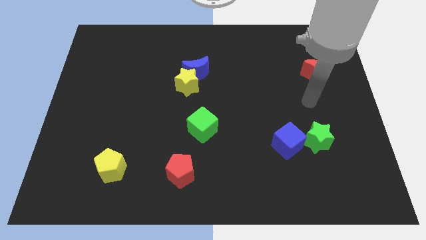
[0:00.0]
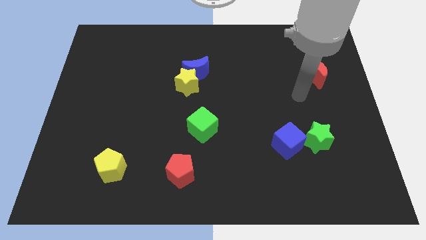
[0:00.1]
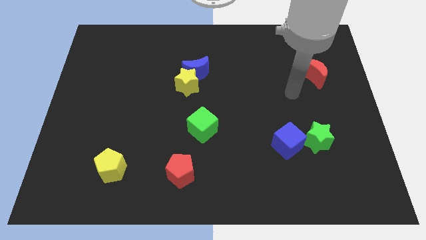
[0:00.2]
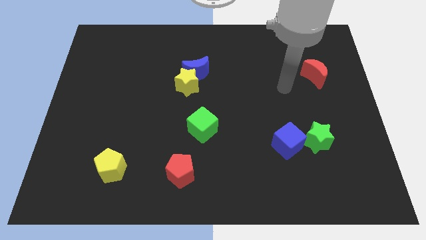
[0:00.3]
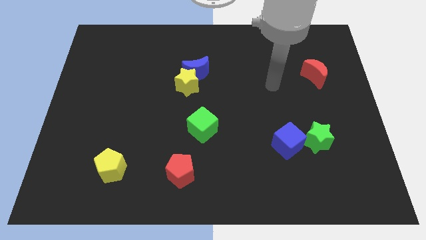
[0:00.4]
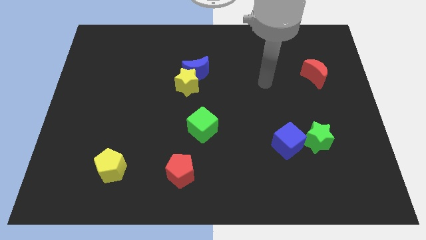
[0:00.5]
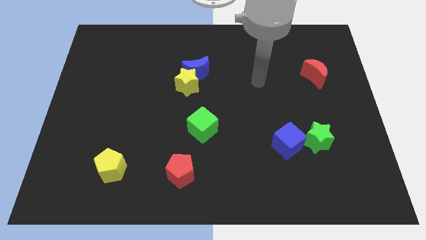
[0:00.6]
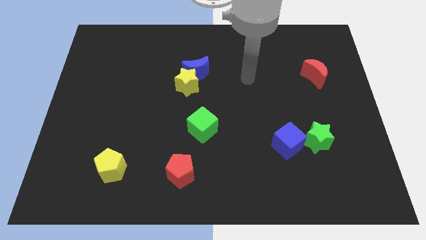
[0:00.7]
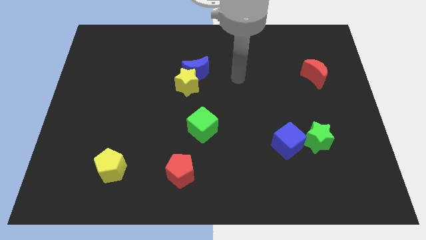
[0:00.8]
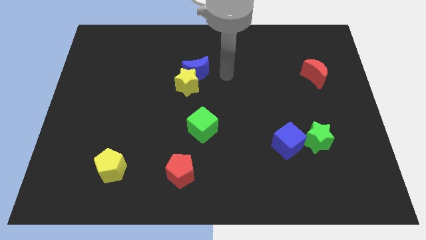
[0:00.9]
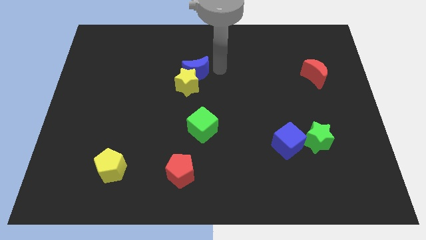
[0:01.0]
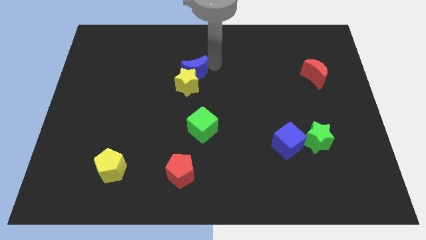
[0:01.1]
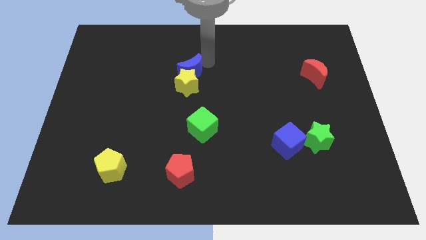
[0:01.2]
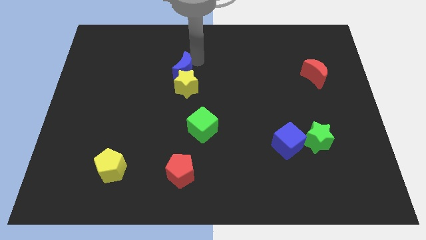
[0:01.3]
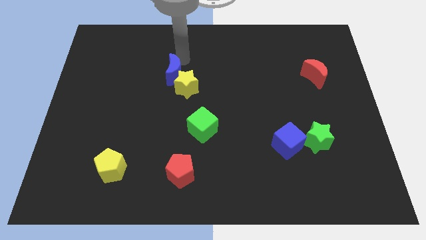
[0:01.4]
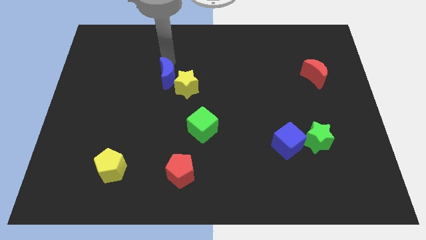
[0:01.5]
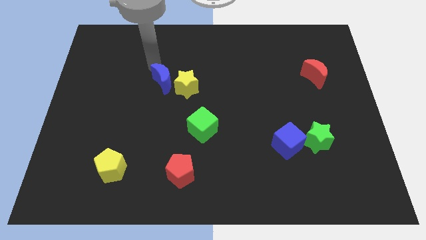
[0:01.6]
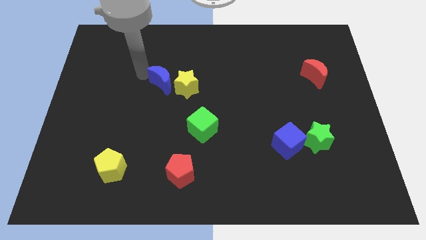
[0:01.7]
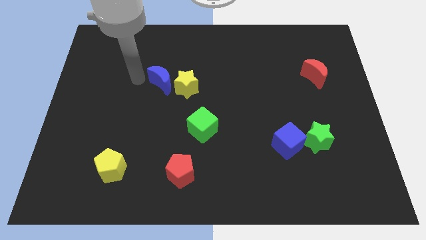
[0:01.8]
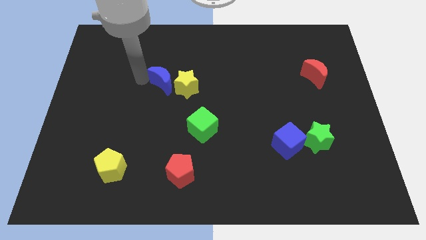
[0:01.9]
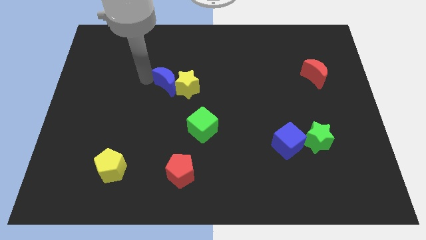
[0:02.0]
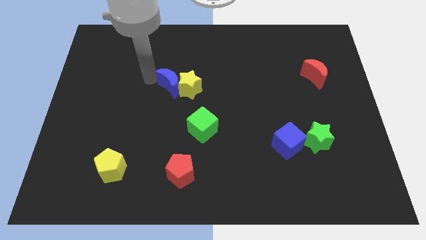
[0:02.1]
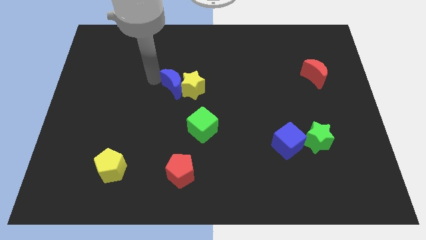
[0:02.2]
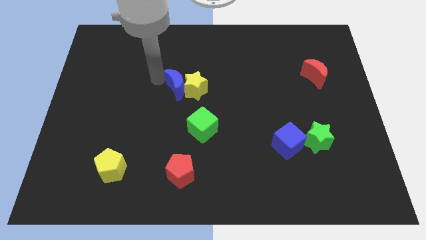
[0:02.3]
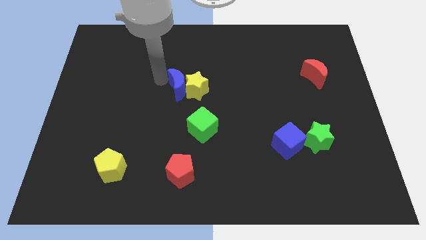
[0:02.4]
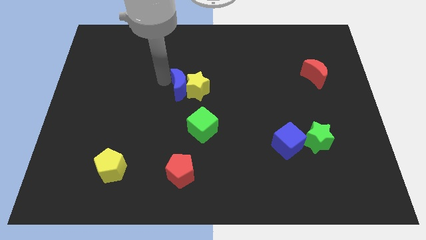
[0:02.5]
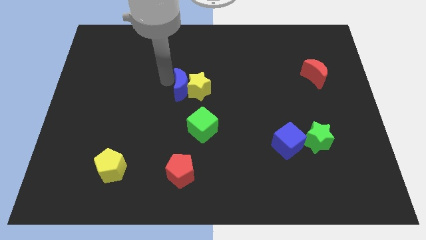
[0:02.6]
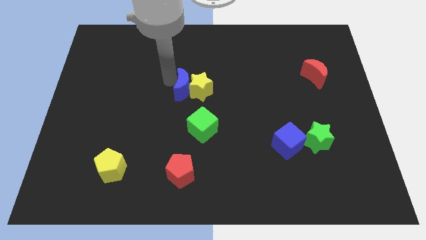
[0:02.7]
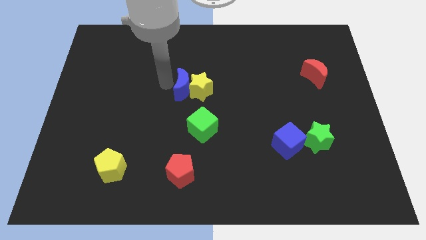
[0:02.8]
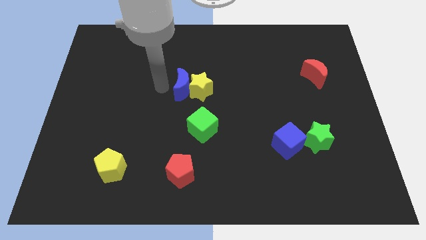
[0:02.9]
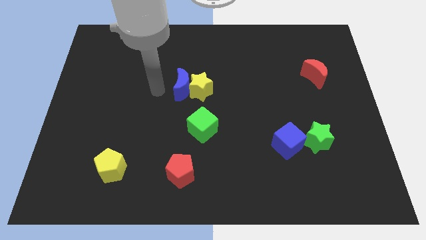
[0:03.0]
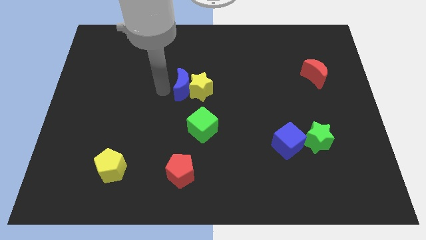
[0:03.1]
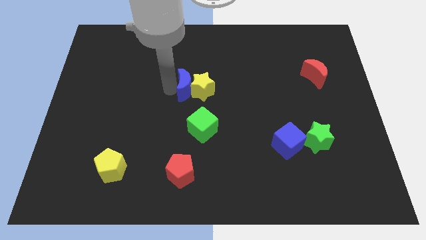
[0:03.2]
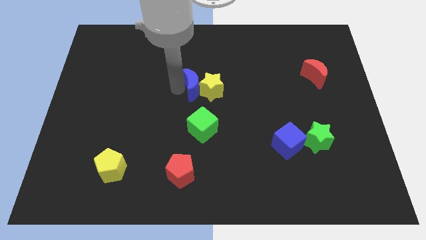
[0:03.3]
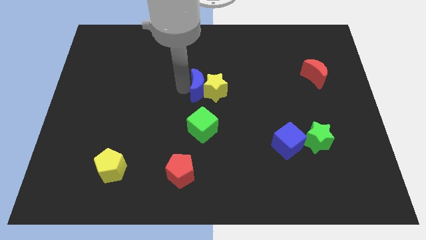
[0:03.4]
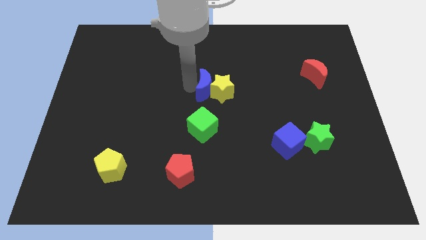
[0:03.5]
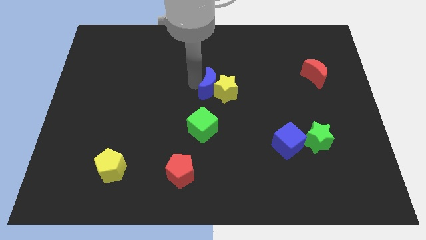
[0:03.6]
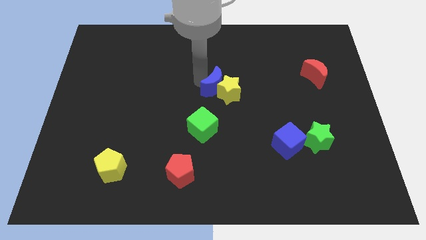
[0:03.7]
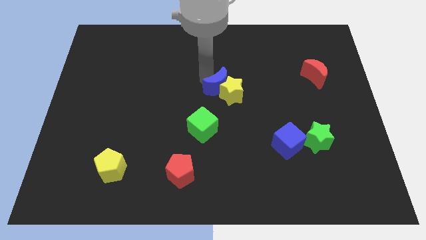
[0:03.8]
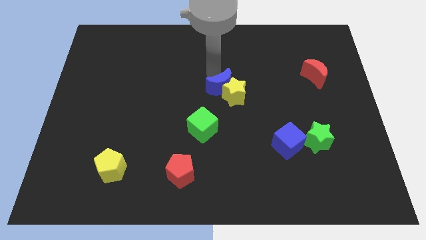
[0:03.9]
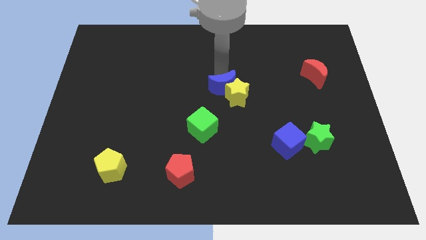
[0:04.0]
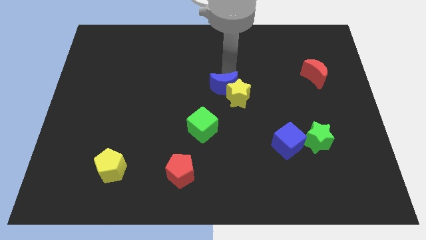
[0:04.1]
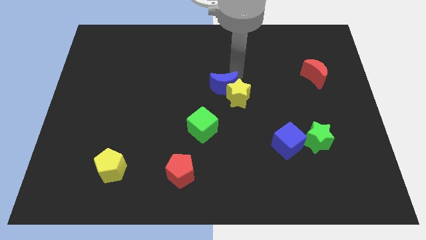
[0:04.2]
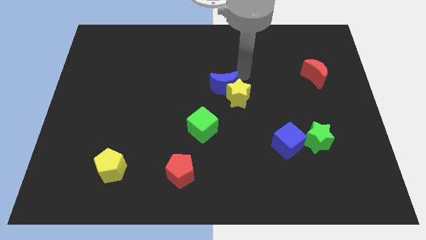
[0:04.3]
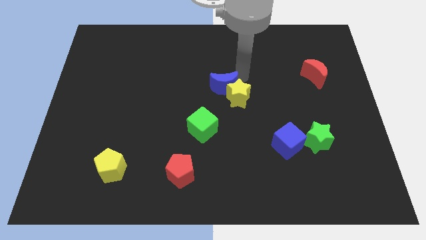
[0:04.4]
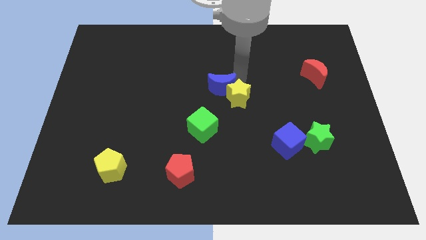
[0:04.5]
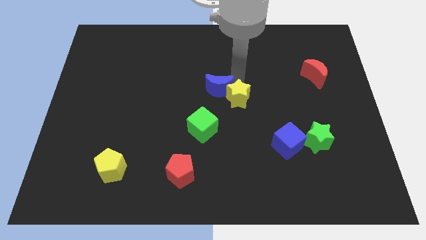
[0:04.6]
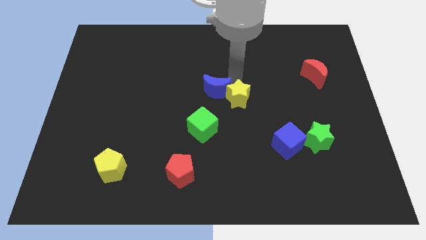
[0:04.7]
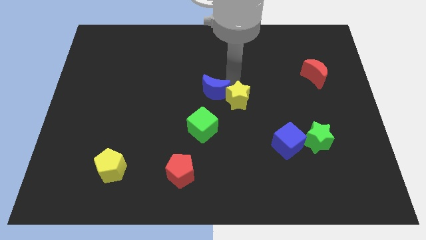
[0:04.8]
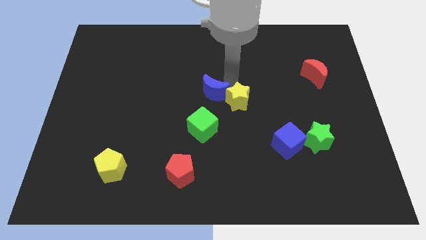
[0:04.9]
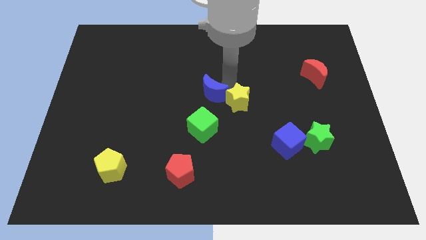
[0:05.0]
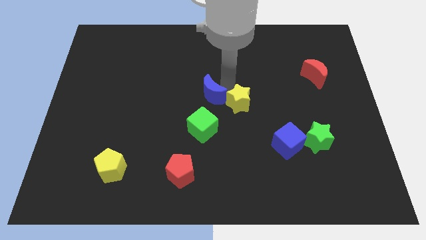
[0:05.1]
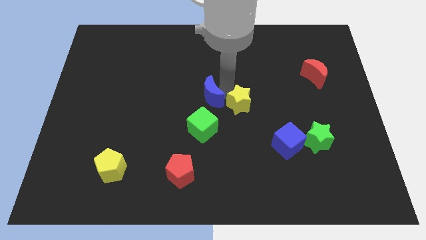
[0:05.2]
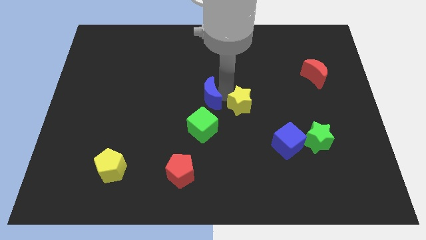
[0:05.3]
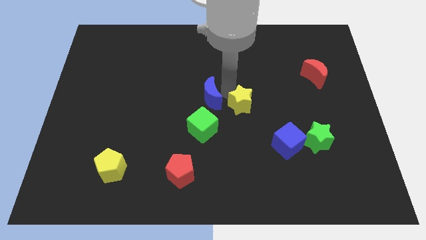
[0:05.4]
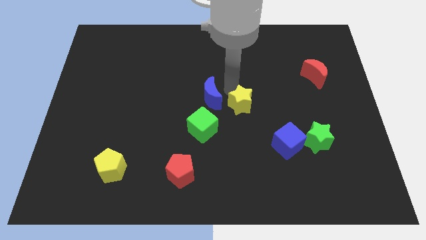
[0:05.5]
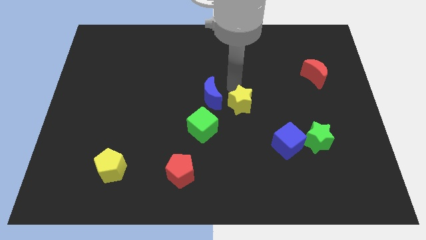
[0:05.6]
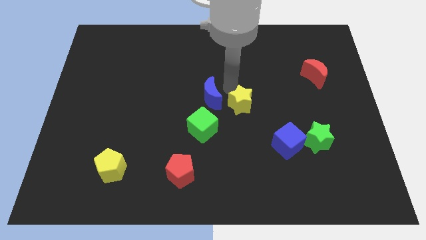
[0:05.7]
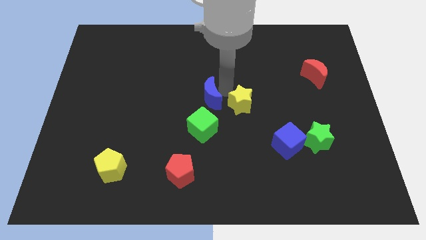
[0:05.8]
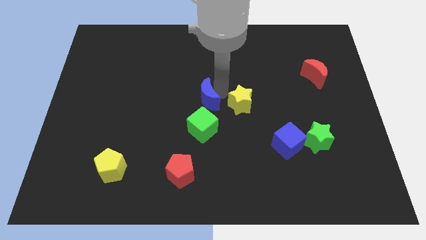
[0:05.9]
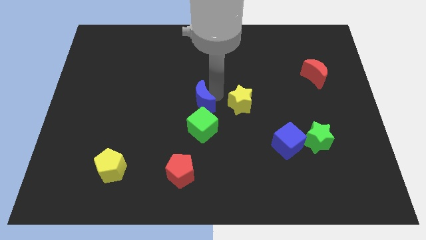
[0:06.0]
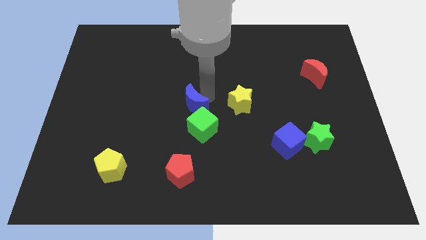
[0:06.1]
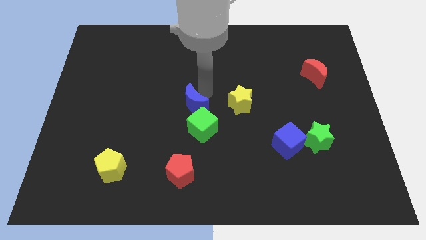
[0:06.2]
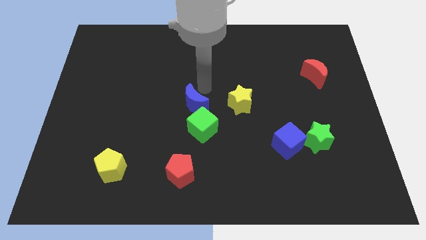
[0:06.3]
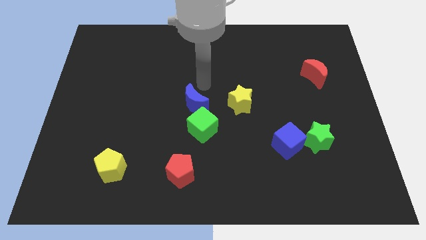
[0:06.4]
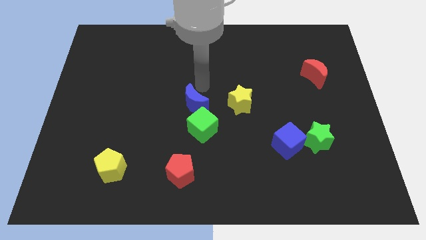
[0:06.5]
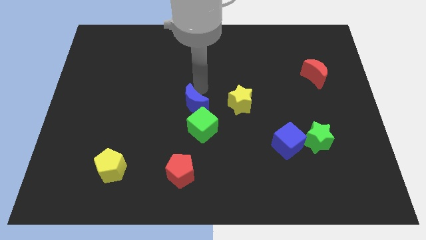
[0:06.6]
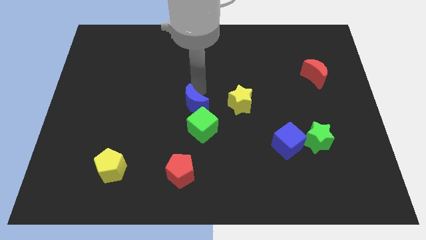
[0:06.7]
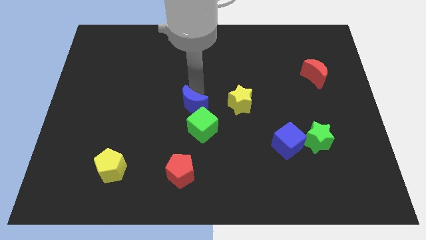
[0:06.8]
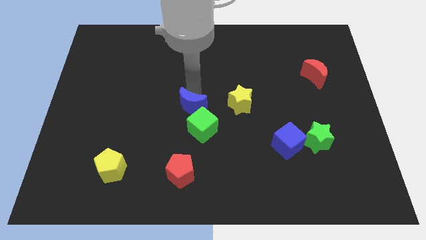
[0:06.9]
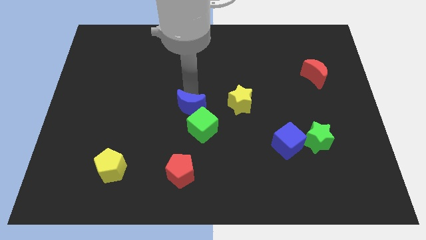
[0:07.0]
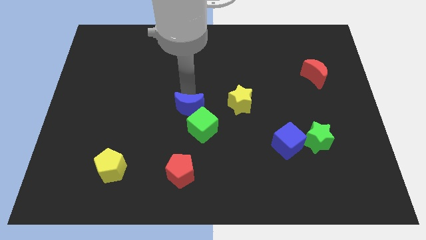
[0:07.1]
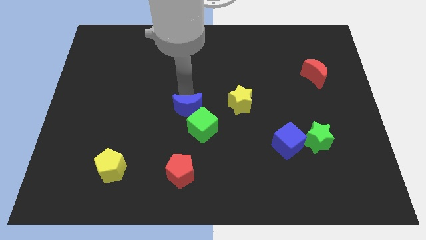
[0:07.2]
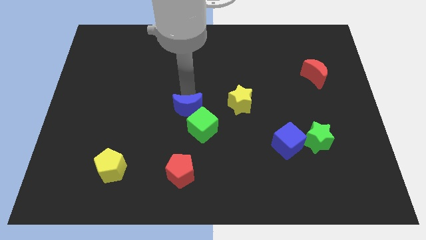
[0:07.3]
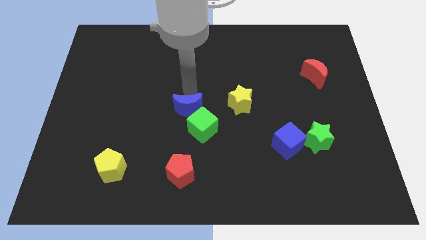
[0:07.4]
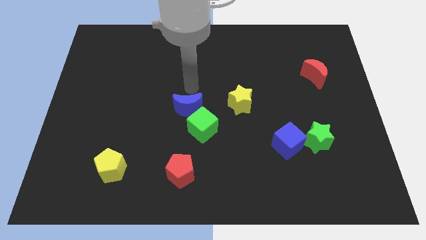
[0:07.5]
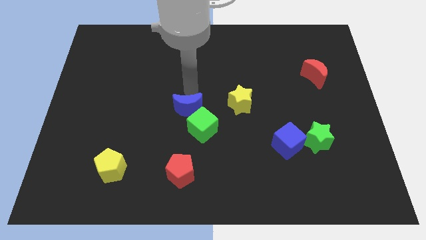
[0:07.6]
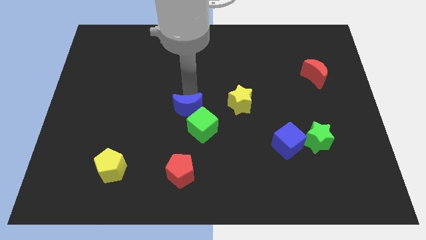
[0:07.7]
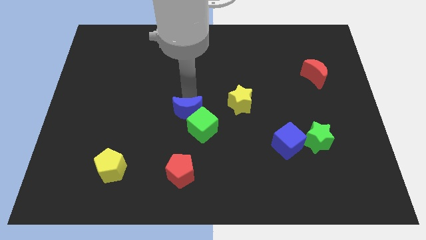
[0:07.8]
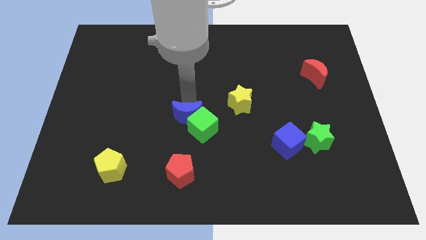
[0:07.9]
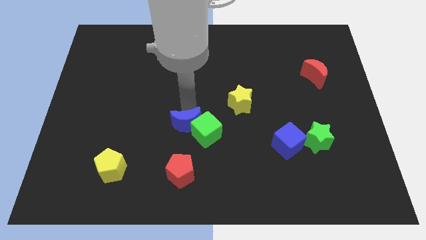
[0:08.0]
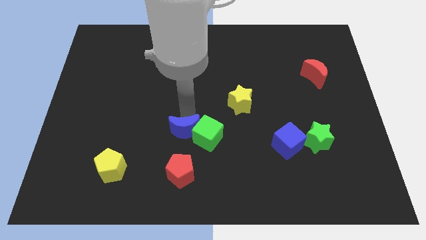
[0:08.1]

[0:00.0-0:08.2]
push the blue moon to the bottom left of the green cube
